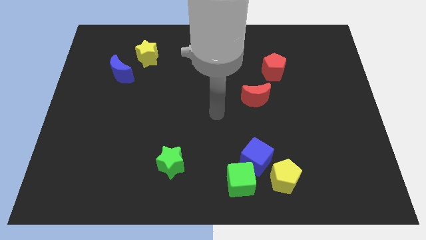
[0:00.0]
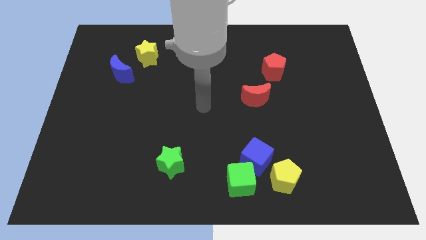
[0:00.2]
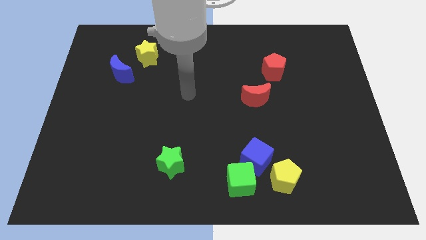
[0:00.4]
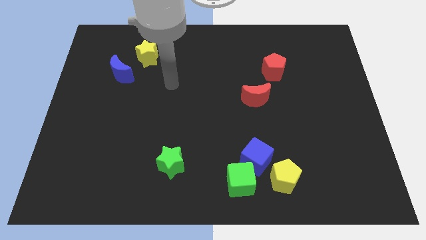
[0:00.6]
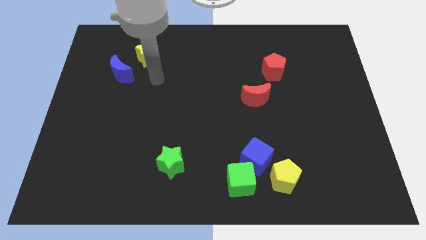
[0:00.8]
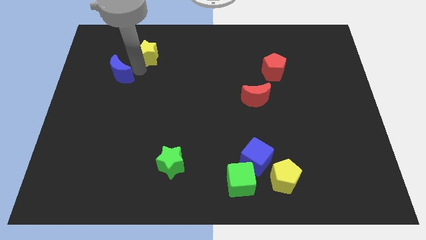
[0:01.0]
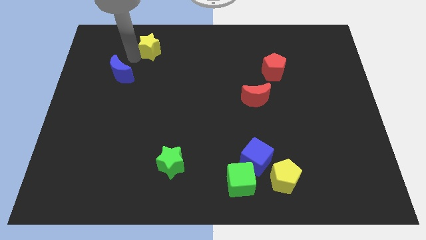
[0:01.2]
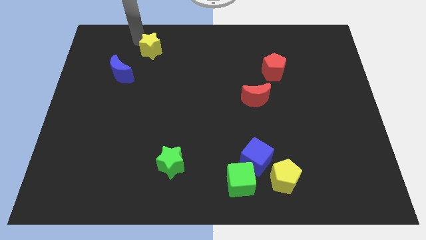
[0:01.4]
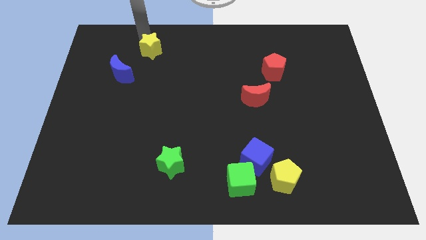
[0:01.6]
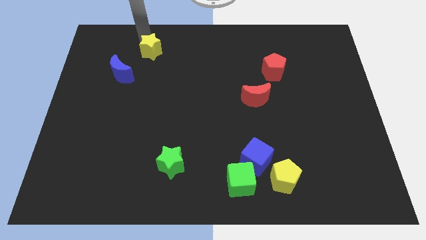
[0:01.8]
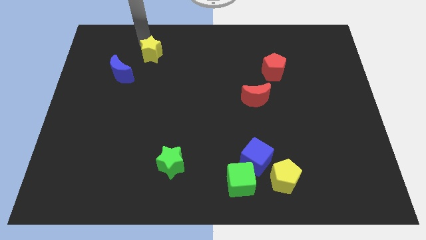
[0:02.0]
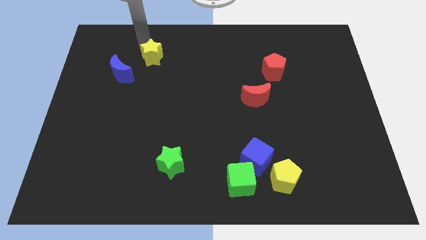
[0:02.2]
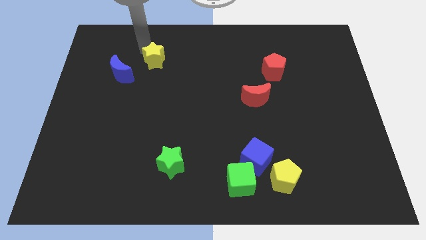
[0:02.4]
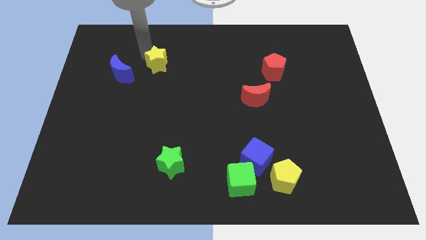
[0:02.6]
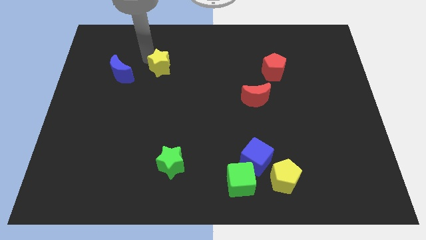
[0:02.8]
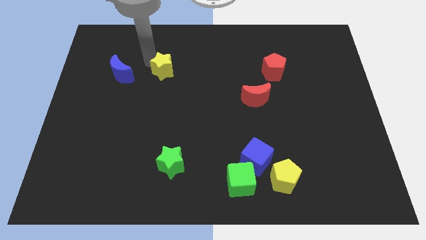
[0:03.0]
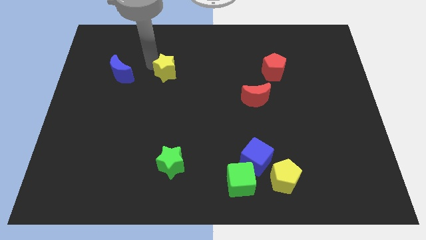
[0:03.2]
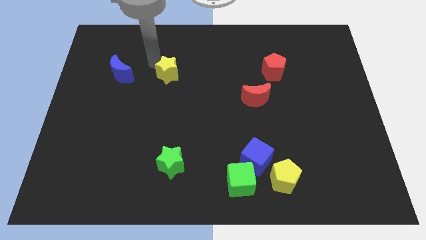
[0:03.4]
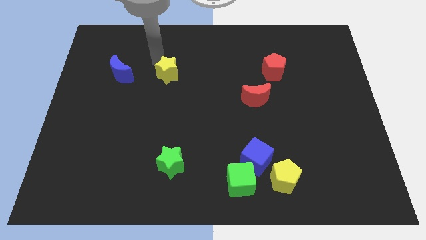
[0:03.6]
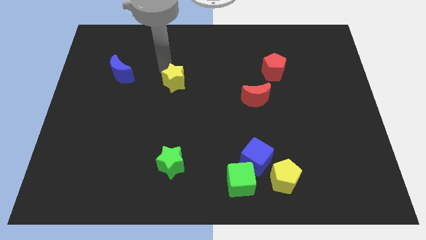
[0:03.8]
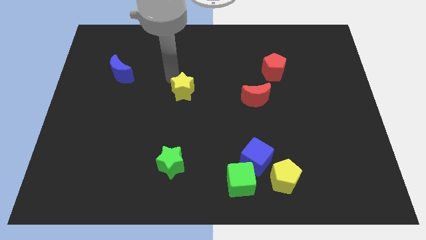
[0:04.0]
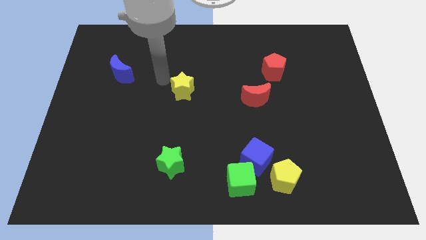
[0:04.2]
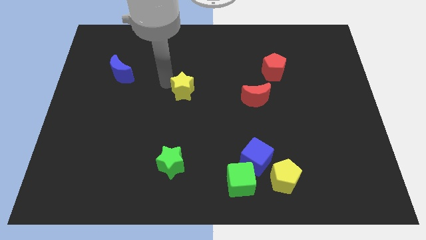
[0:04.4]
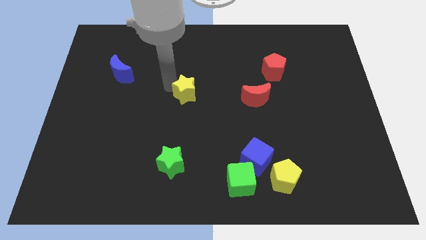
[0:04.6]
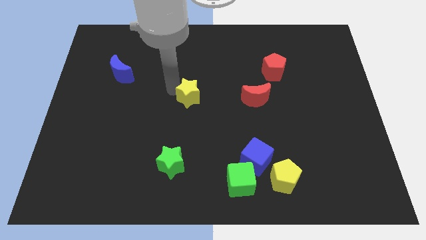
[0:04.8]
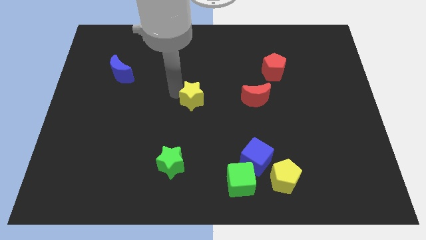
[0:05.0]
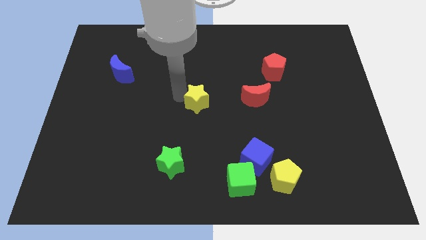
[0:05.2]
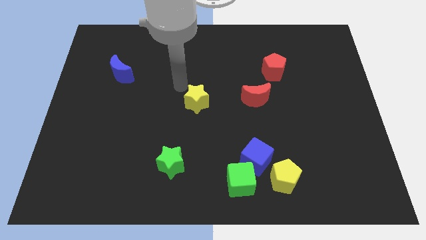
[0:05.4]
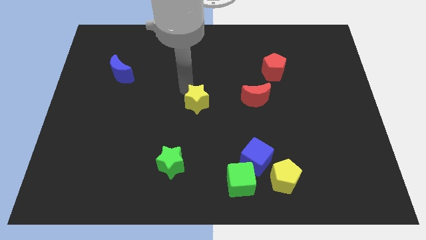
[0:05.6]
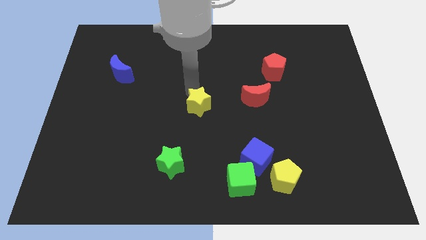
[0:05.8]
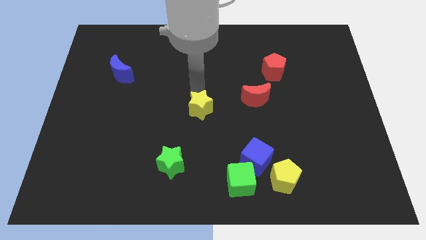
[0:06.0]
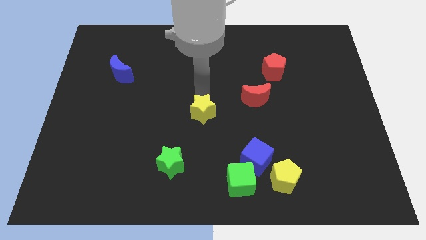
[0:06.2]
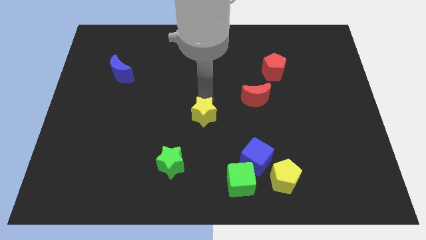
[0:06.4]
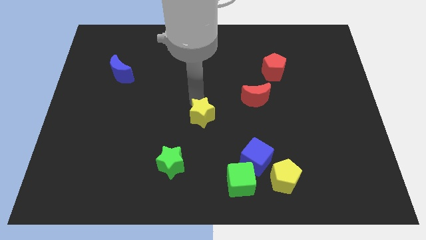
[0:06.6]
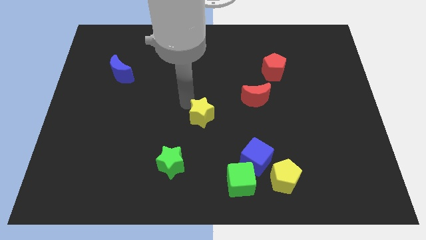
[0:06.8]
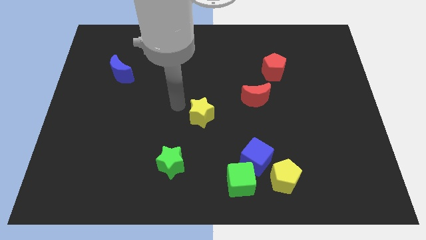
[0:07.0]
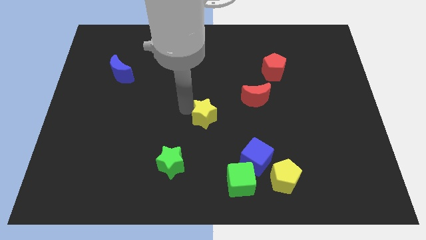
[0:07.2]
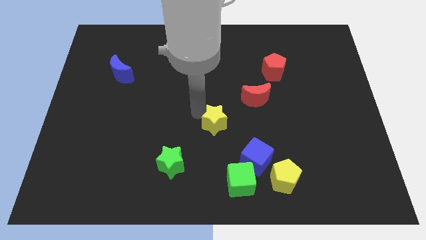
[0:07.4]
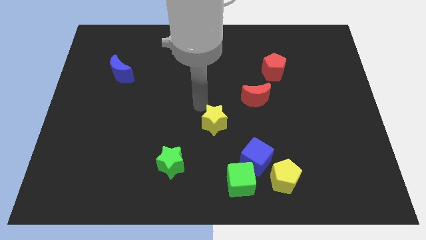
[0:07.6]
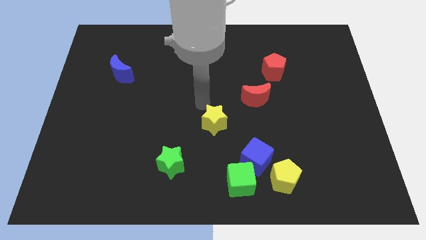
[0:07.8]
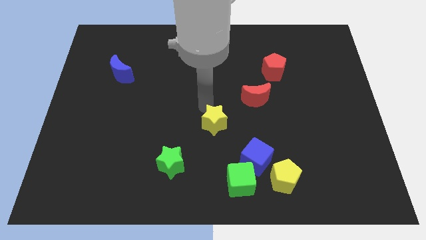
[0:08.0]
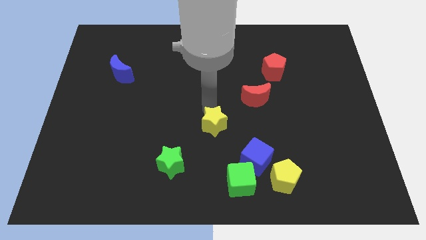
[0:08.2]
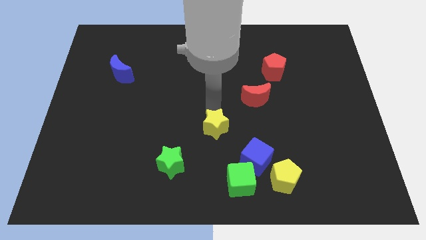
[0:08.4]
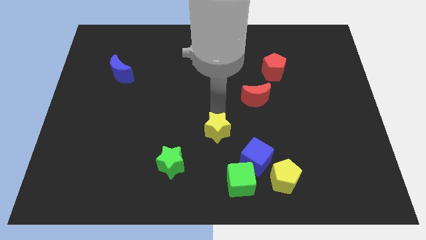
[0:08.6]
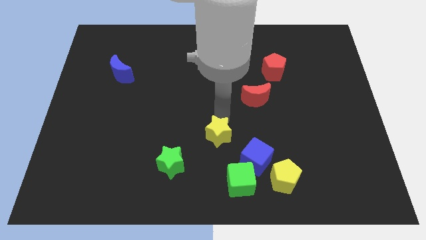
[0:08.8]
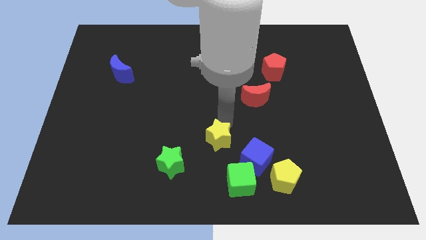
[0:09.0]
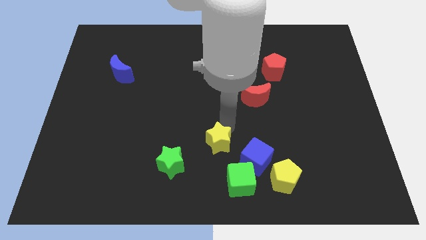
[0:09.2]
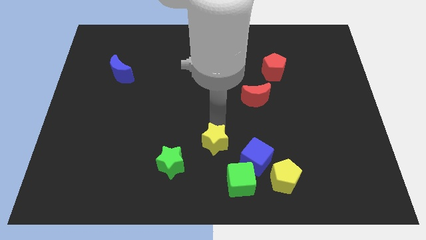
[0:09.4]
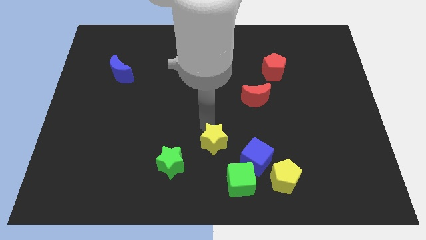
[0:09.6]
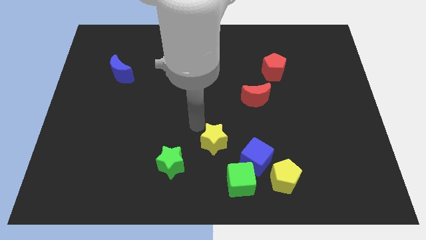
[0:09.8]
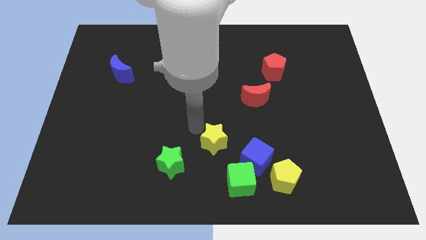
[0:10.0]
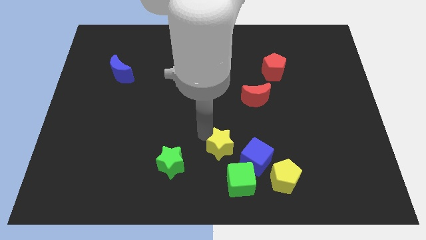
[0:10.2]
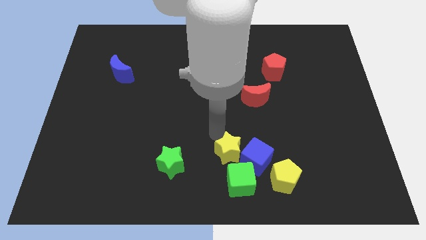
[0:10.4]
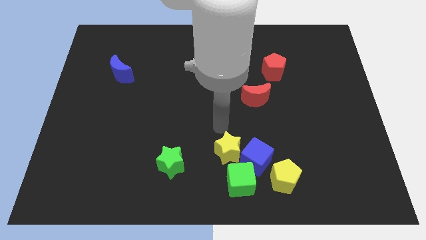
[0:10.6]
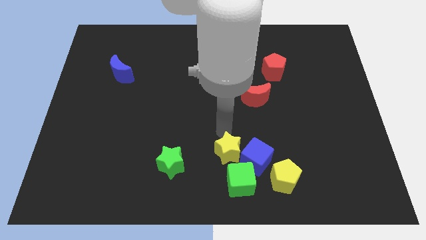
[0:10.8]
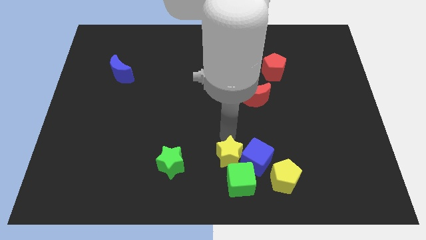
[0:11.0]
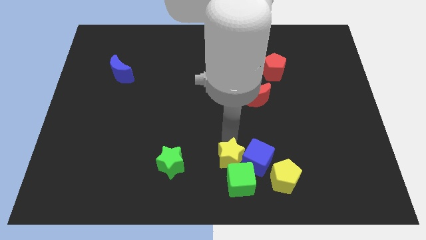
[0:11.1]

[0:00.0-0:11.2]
put the yellow star next to the green cube

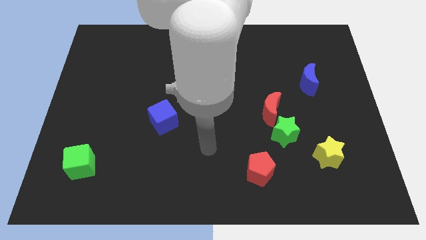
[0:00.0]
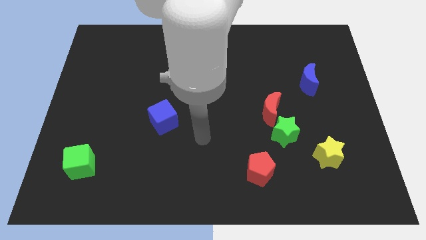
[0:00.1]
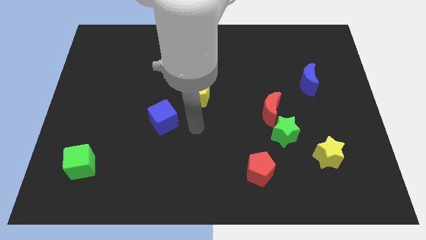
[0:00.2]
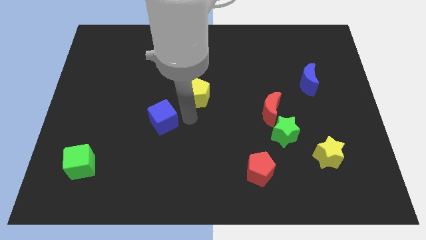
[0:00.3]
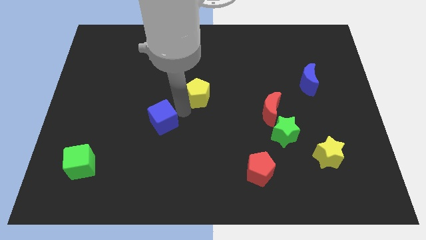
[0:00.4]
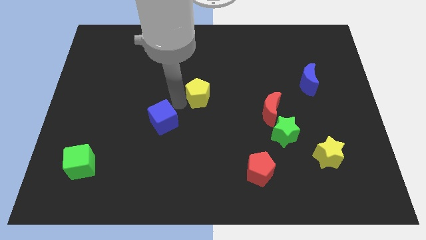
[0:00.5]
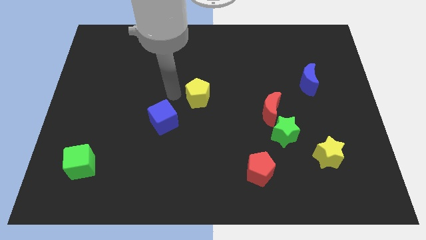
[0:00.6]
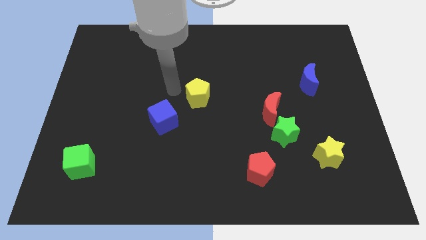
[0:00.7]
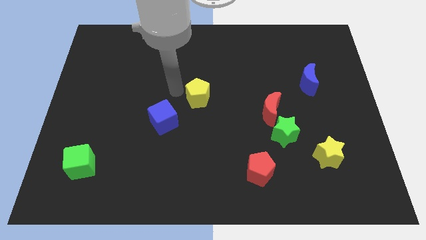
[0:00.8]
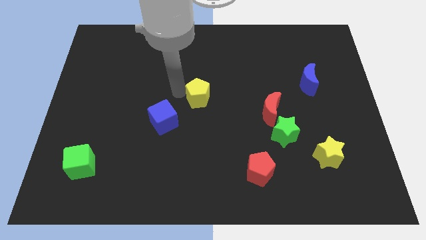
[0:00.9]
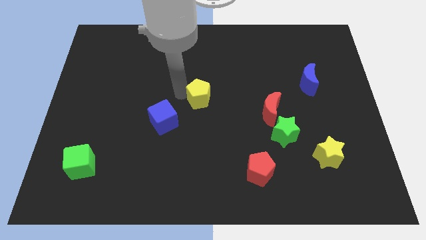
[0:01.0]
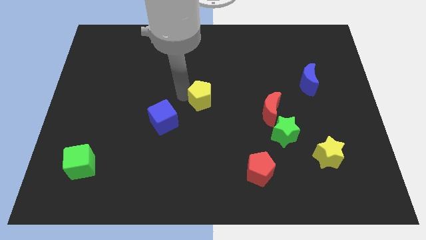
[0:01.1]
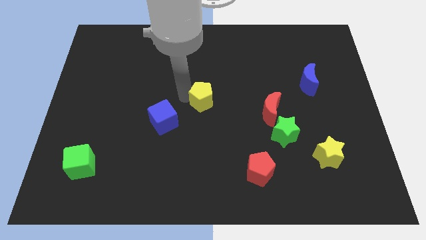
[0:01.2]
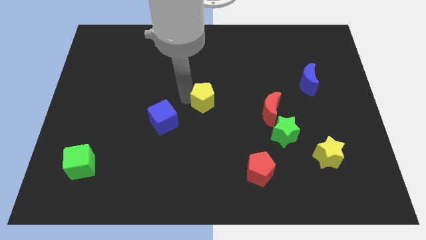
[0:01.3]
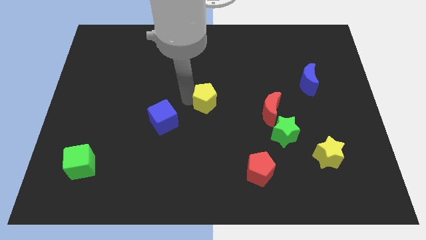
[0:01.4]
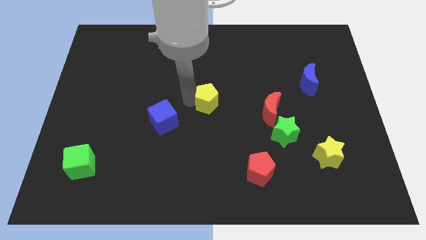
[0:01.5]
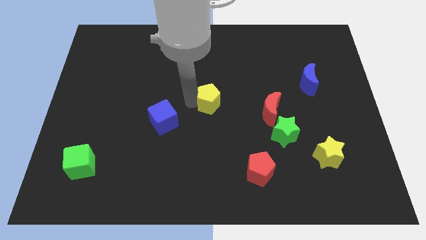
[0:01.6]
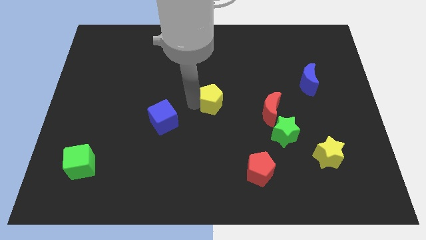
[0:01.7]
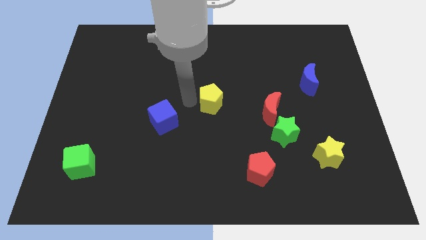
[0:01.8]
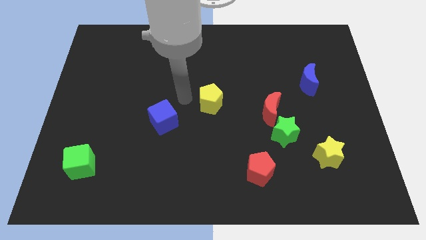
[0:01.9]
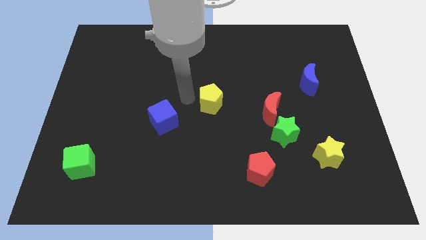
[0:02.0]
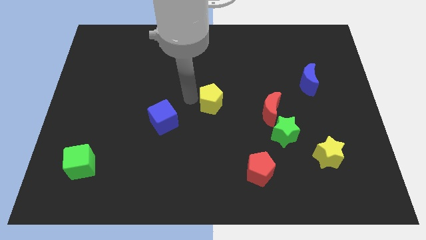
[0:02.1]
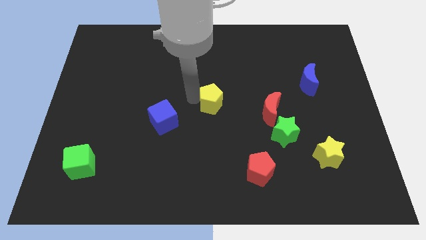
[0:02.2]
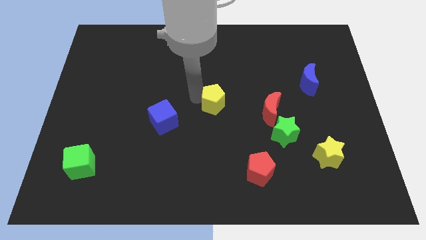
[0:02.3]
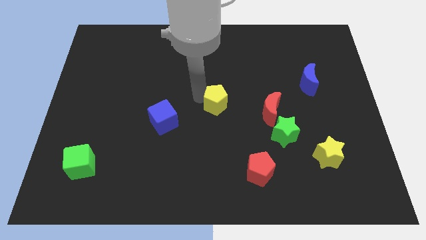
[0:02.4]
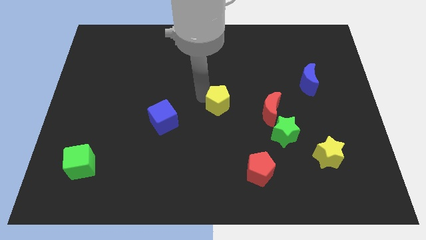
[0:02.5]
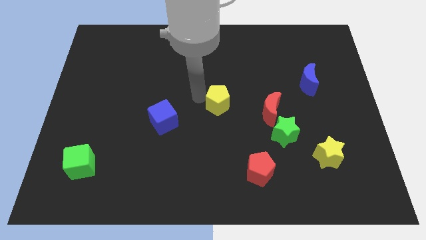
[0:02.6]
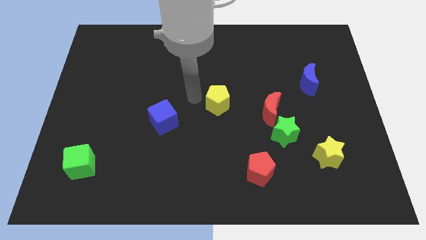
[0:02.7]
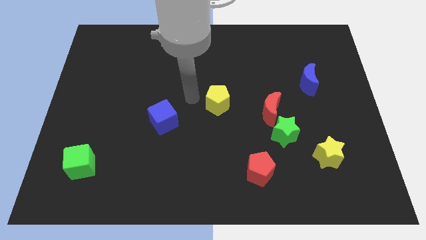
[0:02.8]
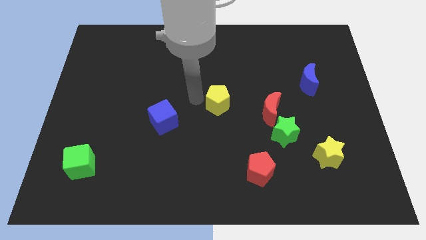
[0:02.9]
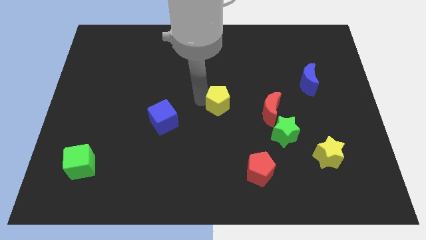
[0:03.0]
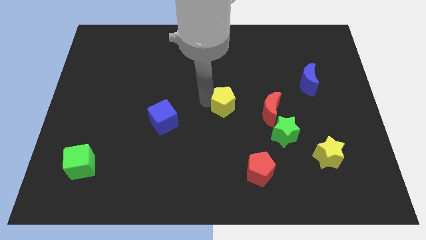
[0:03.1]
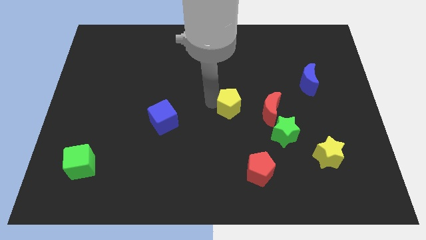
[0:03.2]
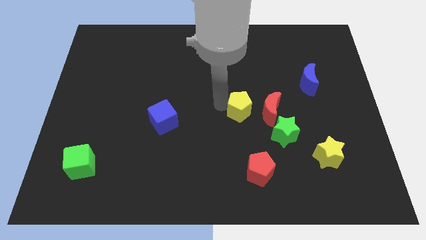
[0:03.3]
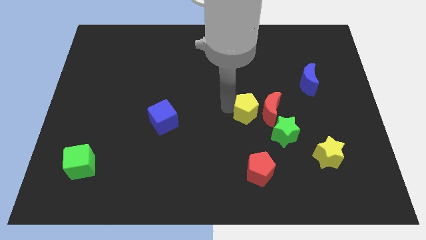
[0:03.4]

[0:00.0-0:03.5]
push the yellow pentagon towards the red moon
